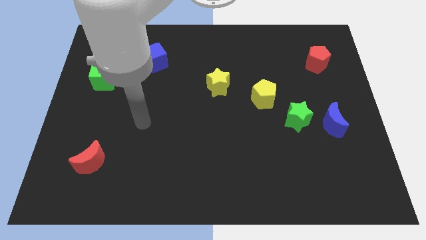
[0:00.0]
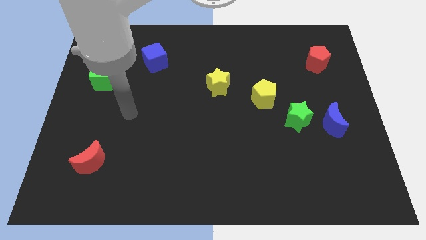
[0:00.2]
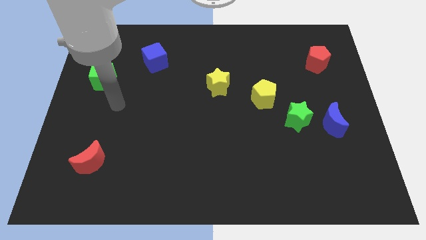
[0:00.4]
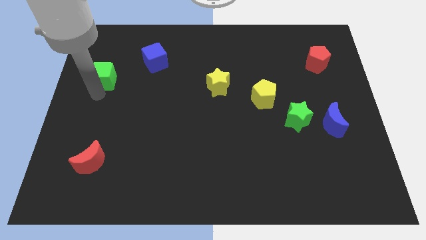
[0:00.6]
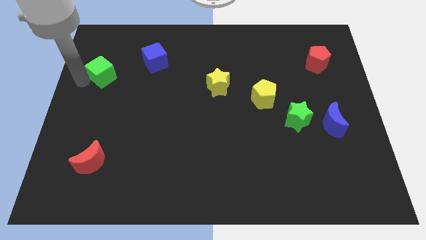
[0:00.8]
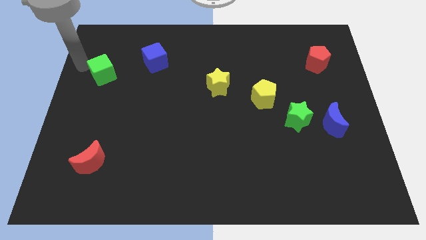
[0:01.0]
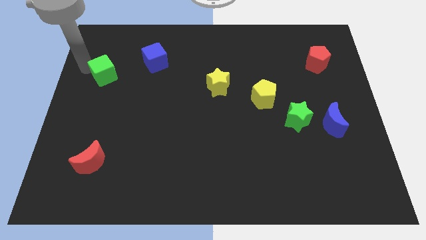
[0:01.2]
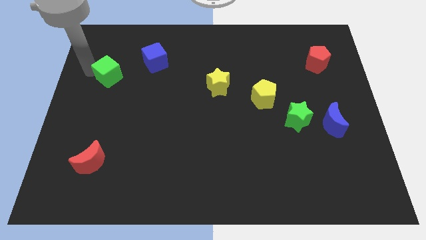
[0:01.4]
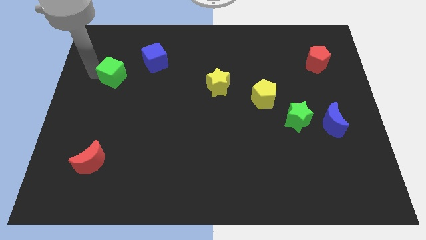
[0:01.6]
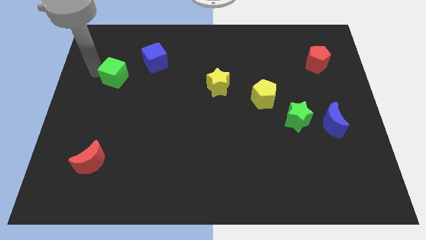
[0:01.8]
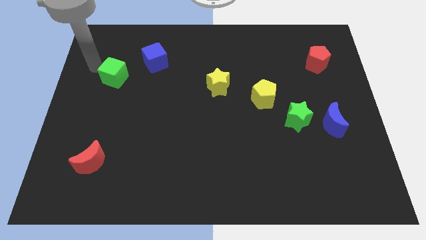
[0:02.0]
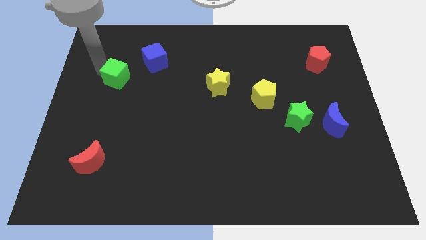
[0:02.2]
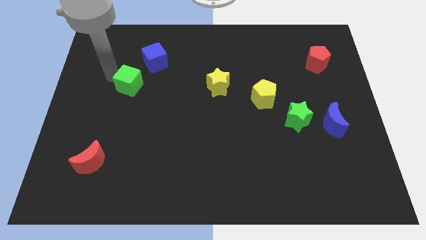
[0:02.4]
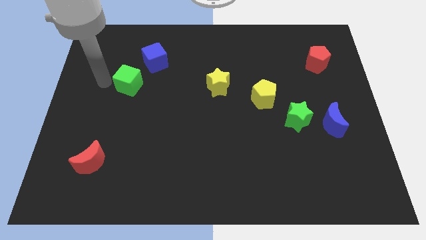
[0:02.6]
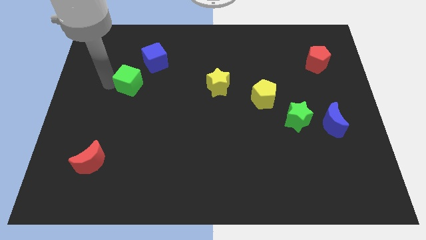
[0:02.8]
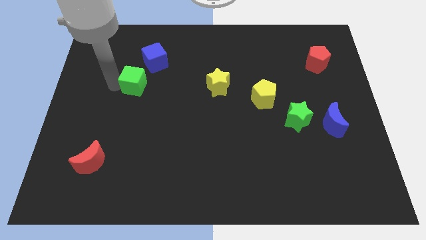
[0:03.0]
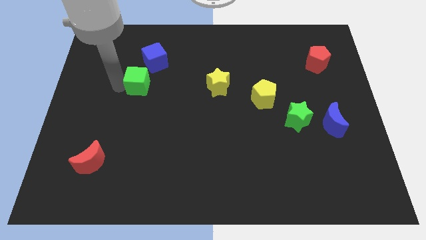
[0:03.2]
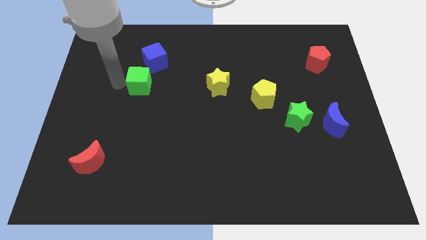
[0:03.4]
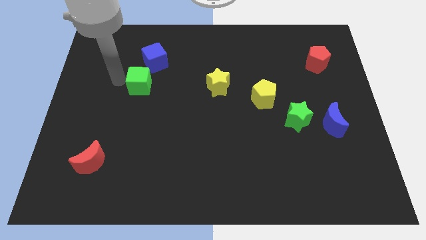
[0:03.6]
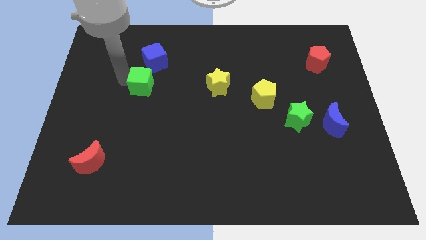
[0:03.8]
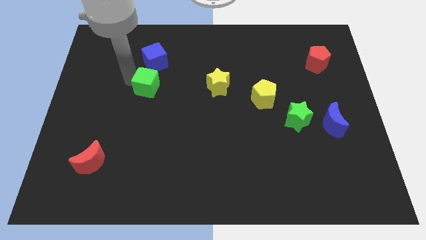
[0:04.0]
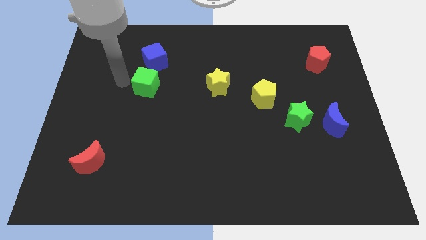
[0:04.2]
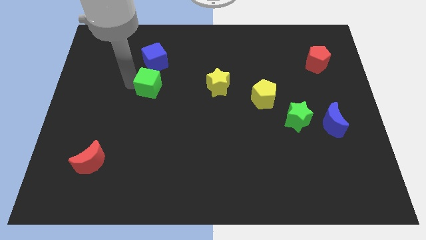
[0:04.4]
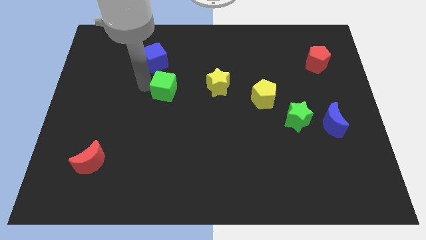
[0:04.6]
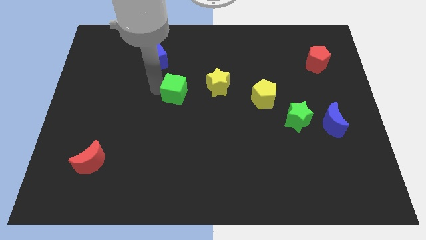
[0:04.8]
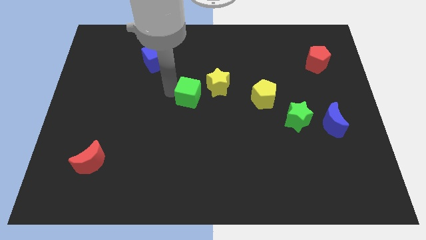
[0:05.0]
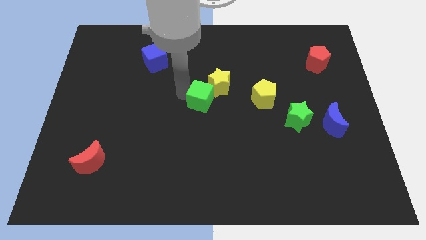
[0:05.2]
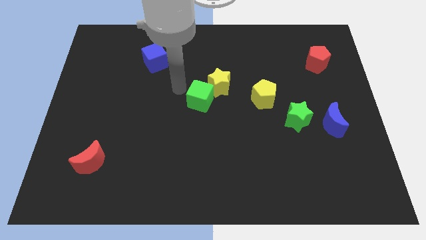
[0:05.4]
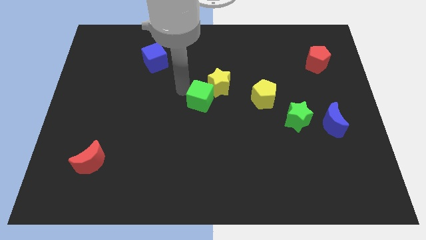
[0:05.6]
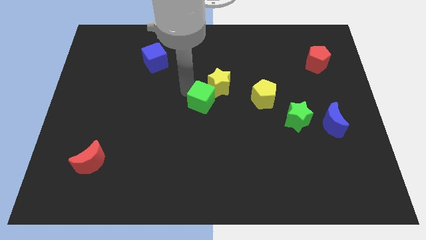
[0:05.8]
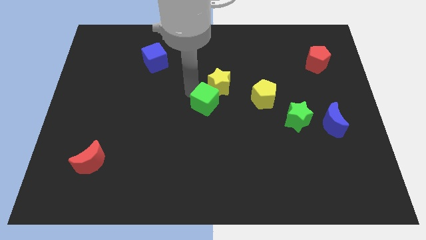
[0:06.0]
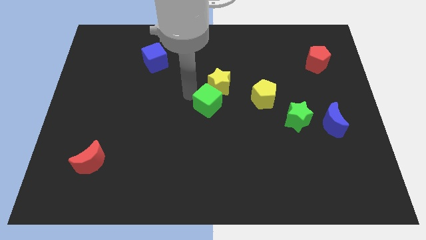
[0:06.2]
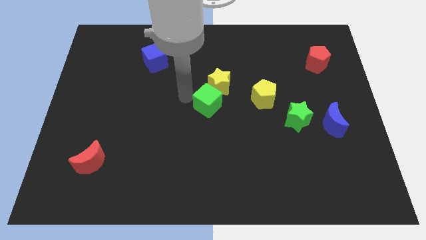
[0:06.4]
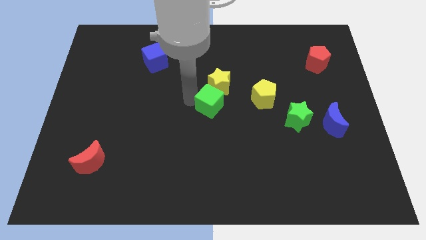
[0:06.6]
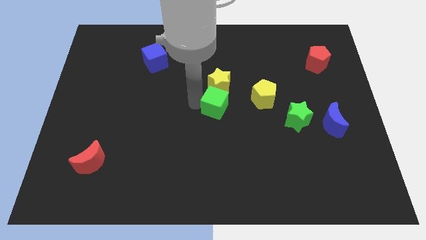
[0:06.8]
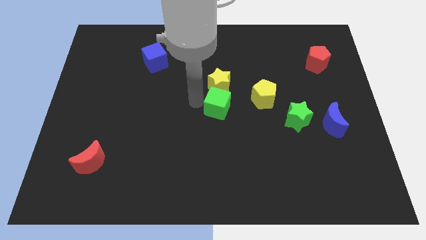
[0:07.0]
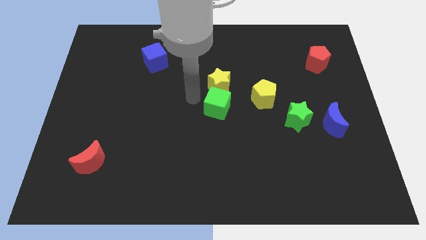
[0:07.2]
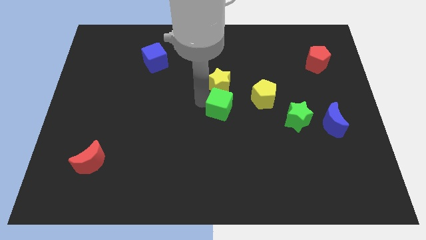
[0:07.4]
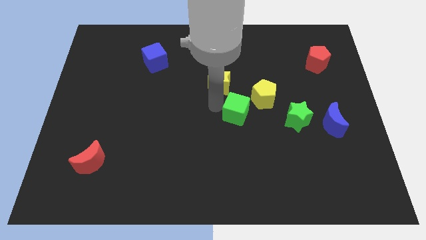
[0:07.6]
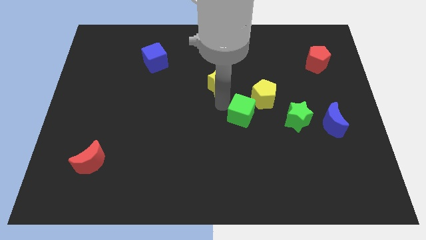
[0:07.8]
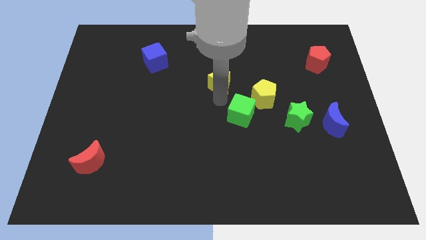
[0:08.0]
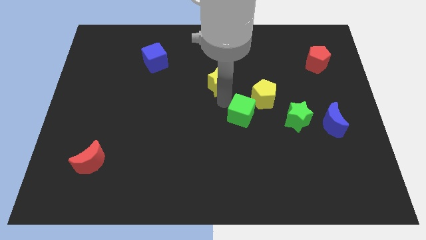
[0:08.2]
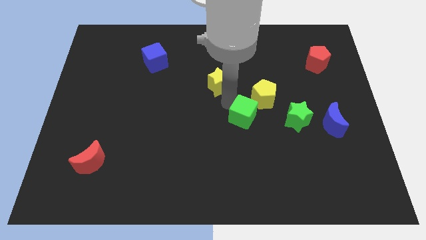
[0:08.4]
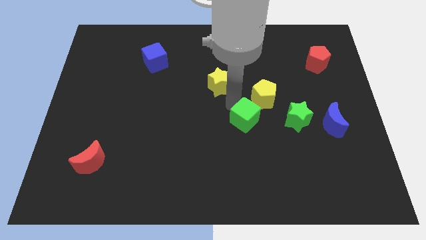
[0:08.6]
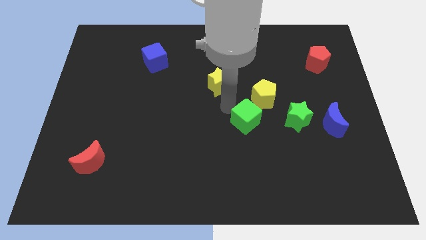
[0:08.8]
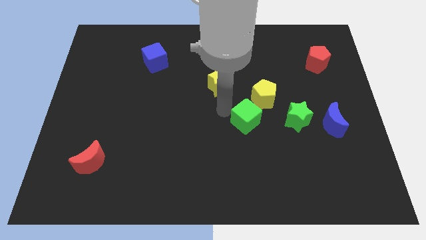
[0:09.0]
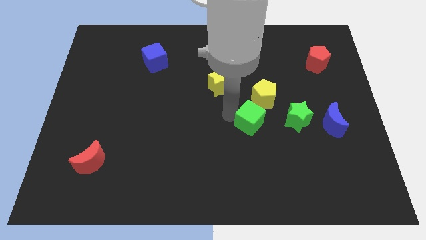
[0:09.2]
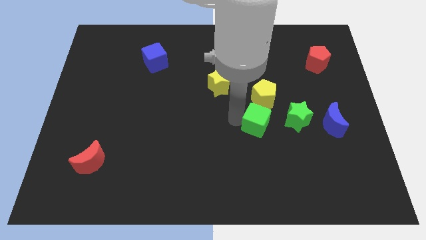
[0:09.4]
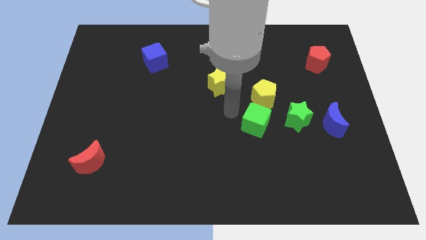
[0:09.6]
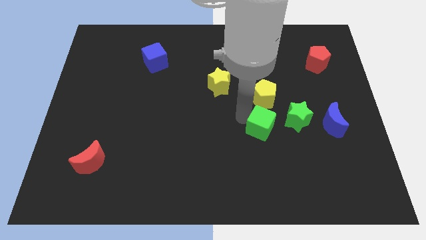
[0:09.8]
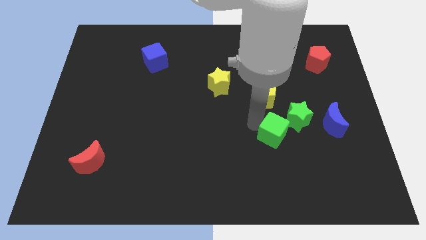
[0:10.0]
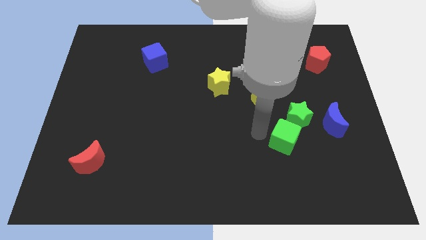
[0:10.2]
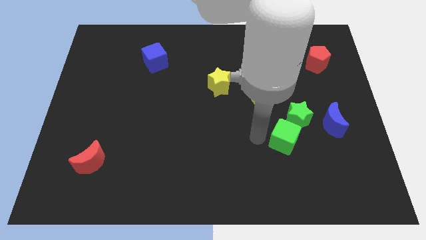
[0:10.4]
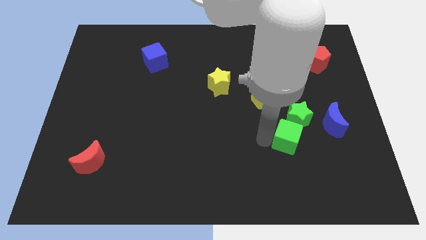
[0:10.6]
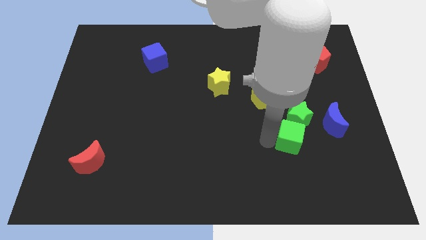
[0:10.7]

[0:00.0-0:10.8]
slide the green cube to the bottom left side of the blue moon

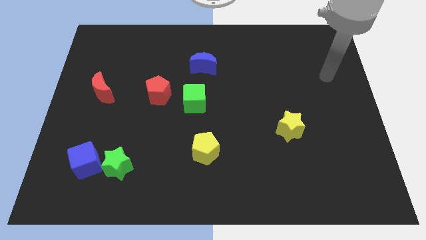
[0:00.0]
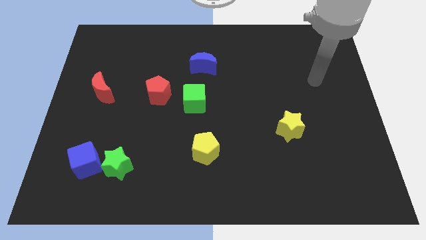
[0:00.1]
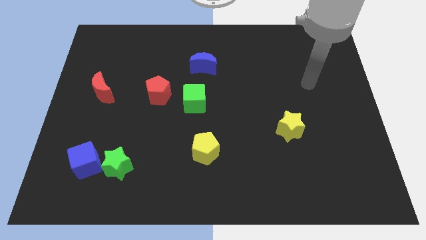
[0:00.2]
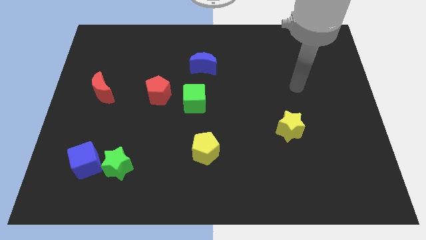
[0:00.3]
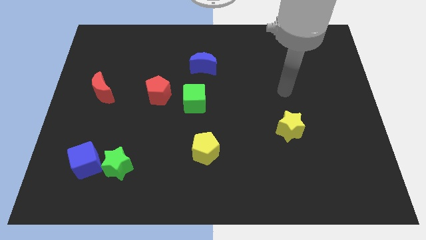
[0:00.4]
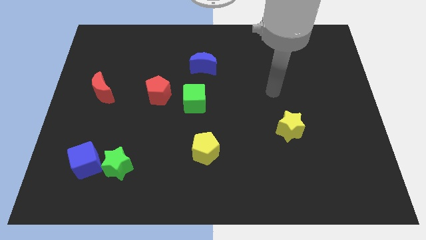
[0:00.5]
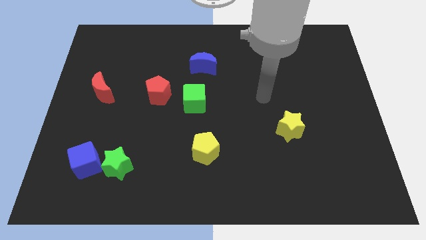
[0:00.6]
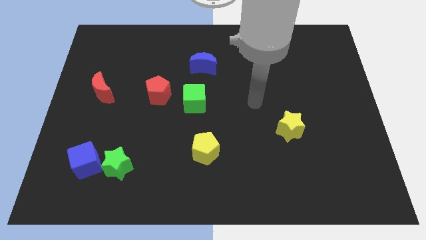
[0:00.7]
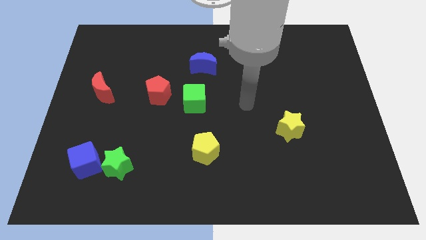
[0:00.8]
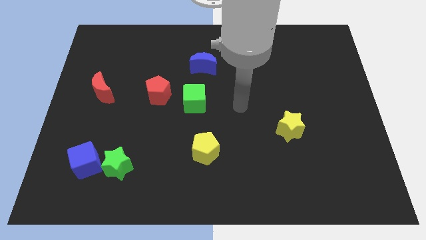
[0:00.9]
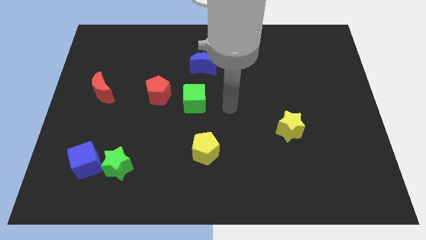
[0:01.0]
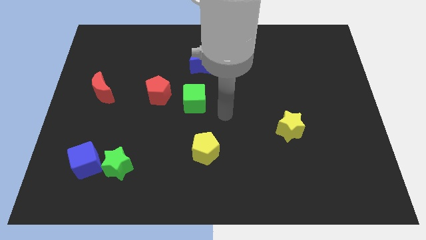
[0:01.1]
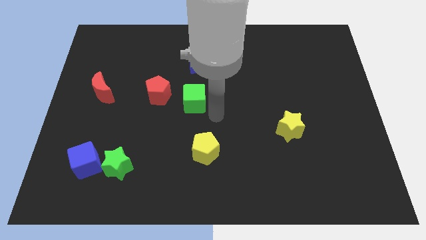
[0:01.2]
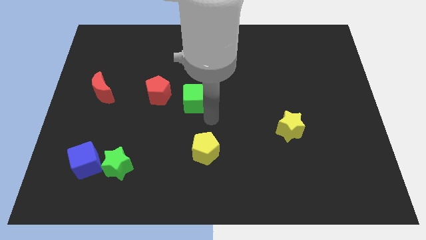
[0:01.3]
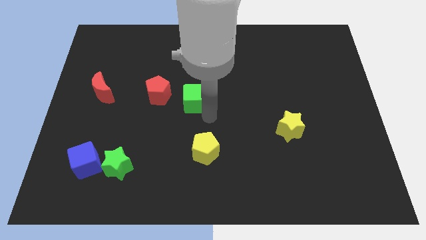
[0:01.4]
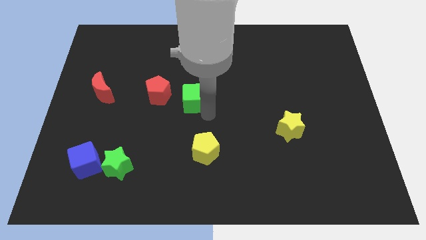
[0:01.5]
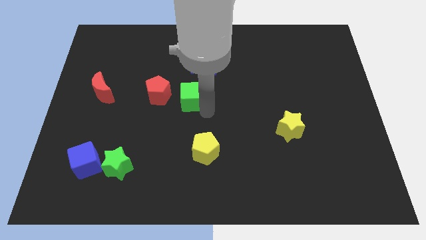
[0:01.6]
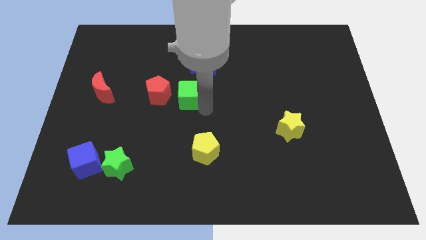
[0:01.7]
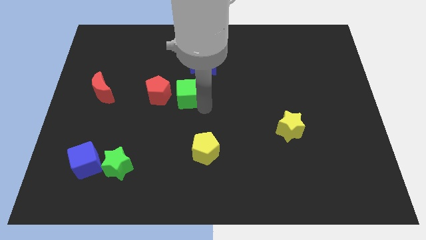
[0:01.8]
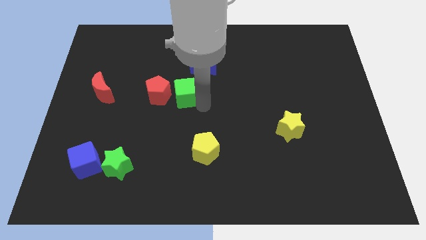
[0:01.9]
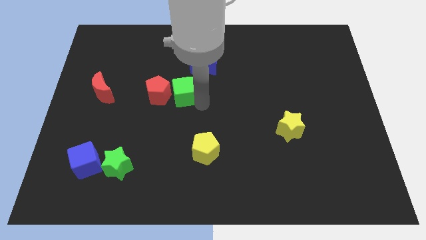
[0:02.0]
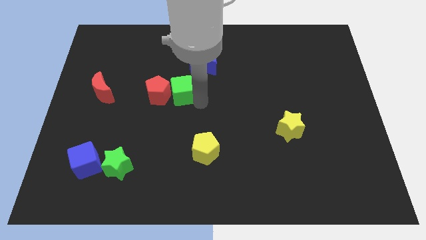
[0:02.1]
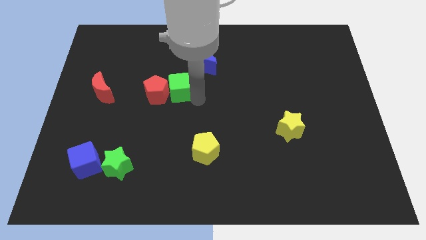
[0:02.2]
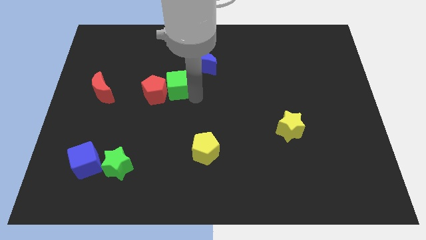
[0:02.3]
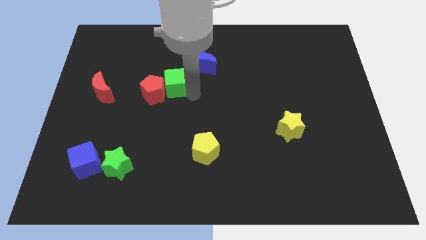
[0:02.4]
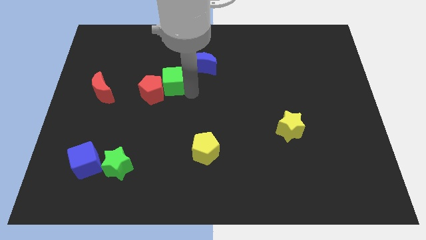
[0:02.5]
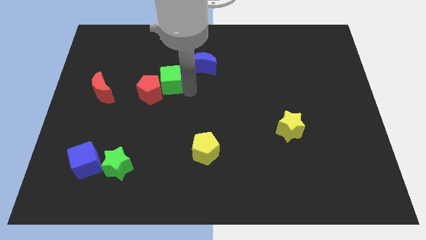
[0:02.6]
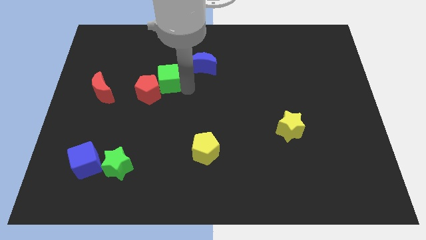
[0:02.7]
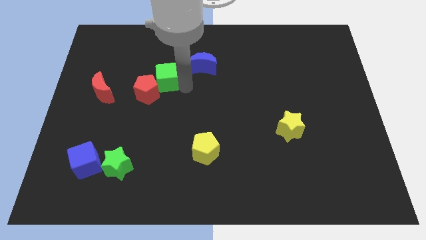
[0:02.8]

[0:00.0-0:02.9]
push the green cube left of the blue moon
